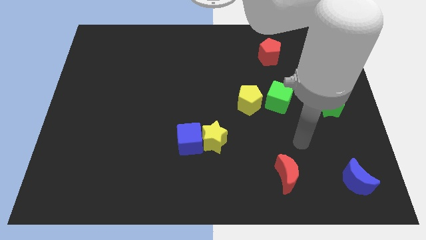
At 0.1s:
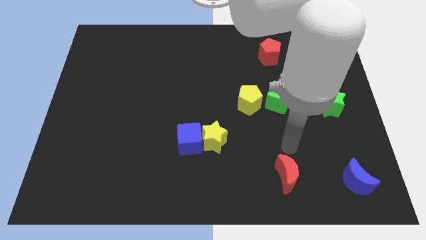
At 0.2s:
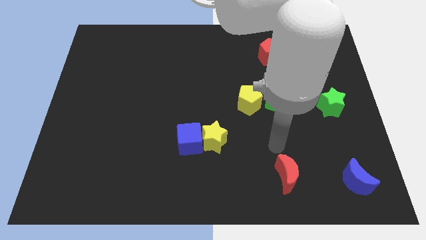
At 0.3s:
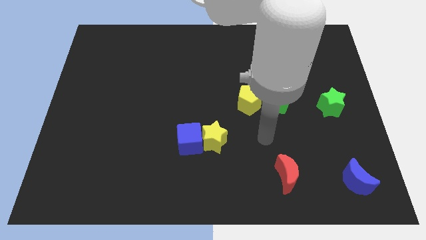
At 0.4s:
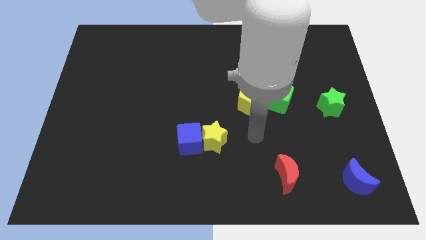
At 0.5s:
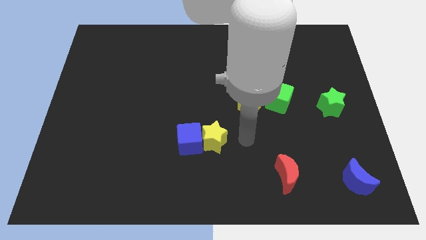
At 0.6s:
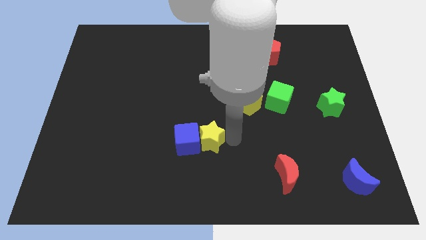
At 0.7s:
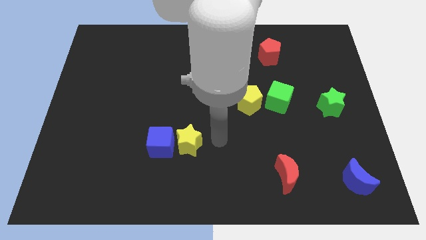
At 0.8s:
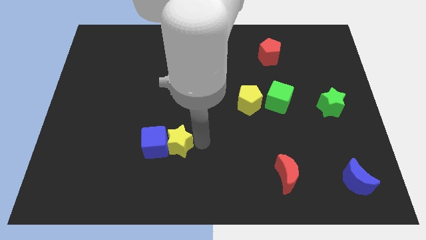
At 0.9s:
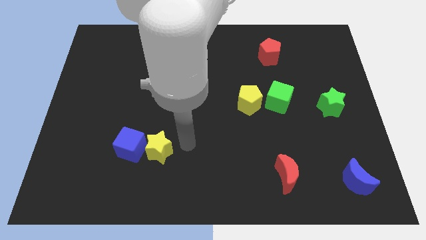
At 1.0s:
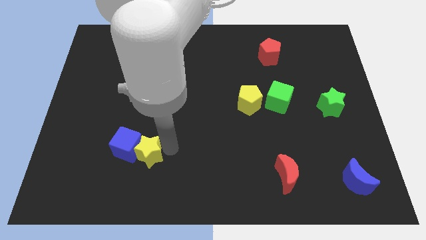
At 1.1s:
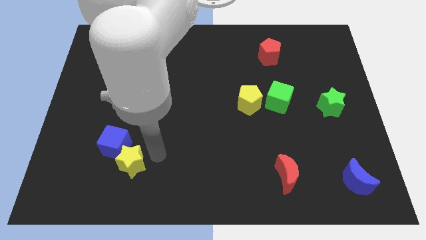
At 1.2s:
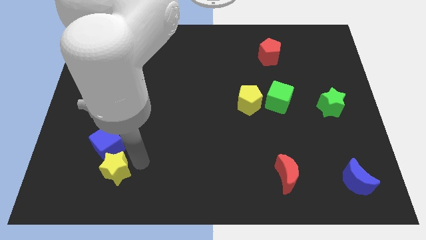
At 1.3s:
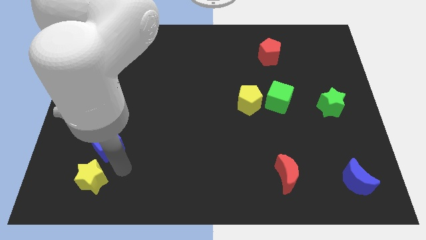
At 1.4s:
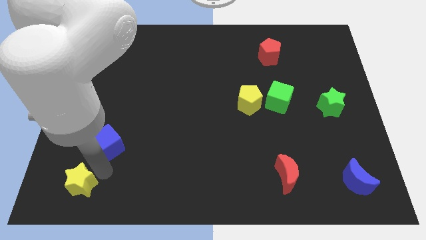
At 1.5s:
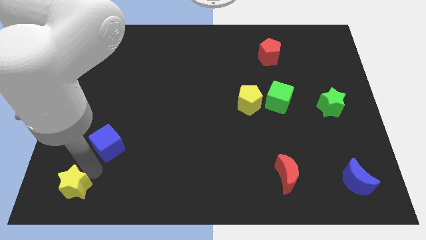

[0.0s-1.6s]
pull the blue cube apart from the yellow star

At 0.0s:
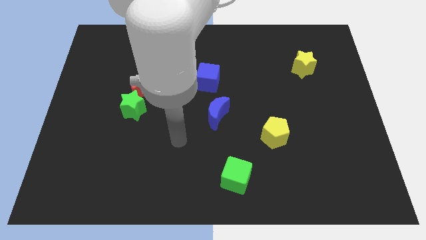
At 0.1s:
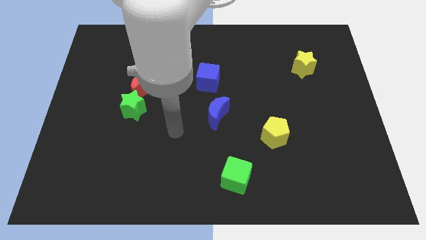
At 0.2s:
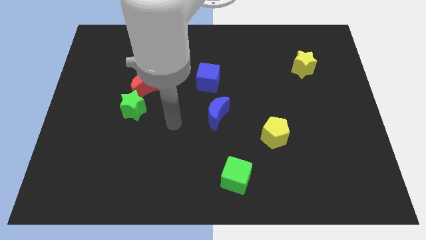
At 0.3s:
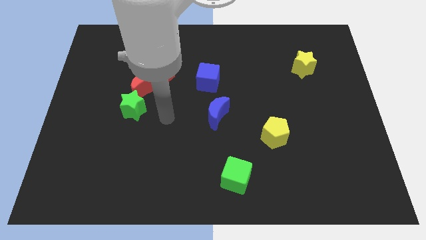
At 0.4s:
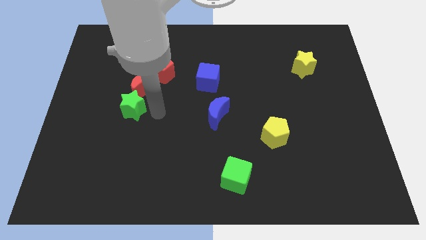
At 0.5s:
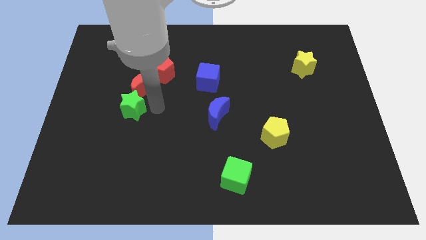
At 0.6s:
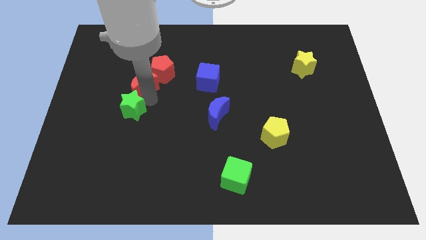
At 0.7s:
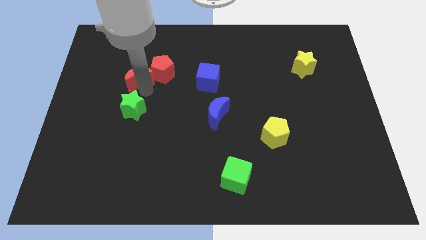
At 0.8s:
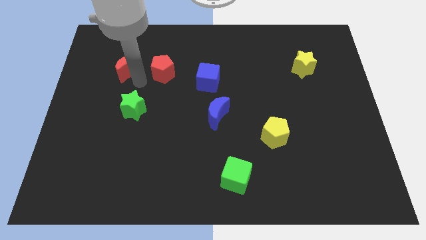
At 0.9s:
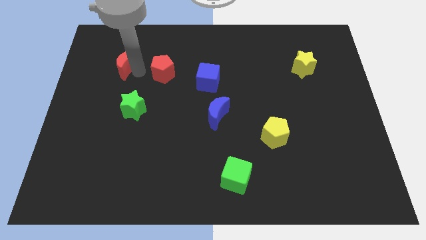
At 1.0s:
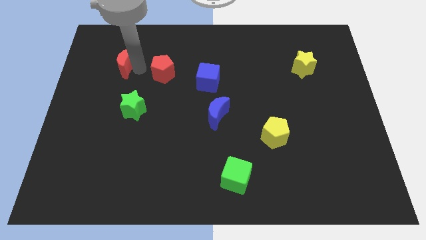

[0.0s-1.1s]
separate the red pentagon from the red moon

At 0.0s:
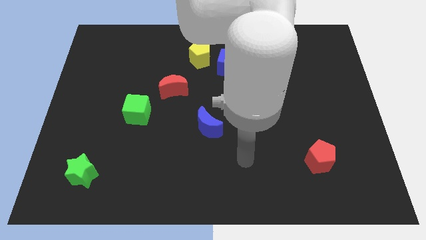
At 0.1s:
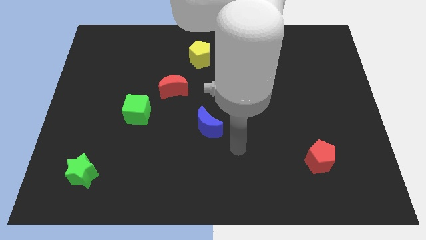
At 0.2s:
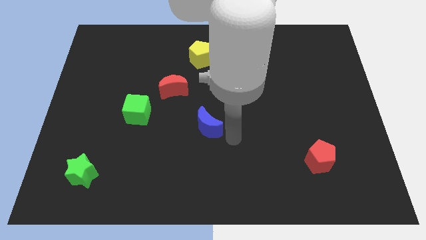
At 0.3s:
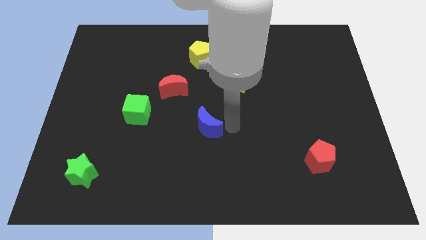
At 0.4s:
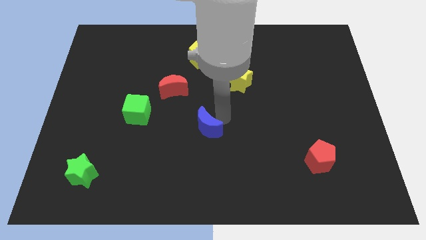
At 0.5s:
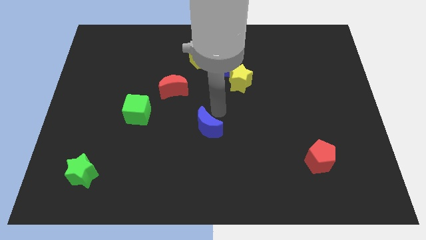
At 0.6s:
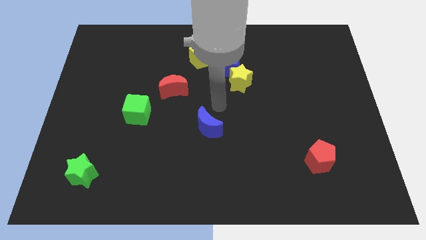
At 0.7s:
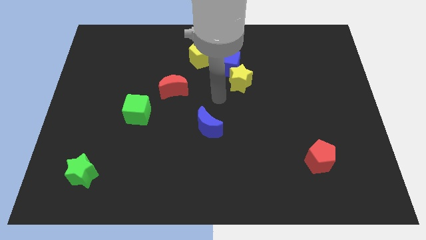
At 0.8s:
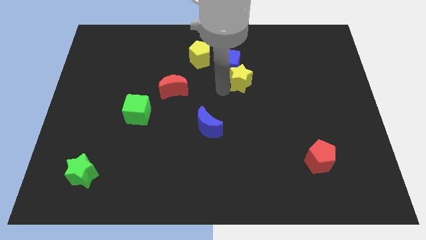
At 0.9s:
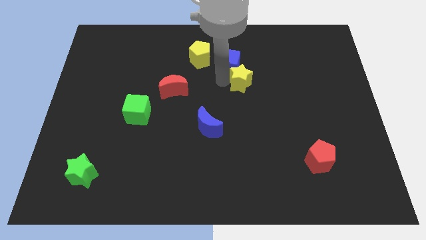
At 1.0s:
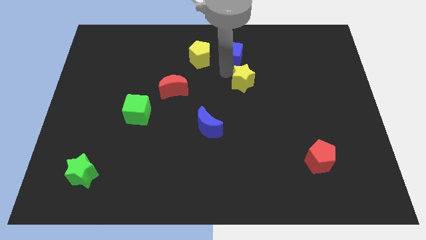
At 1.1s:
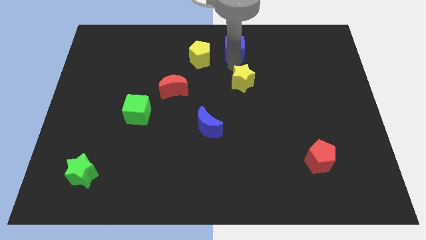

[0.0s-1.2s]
pull the yellow star apart from the blue cube

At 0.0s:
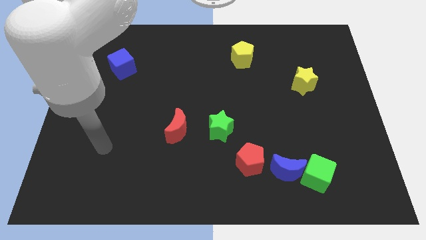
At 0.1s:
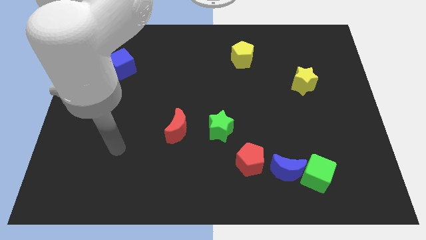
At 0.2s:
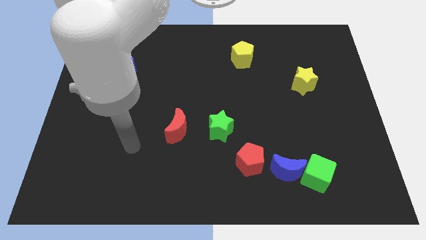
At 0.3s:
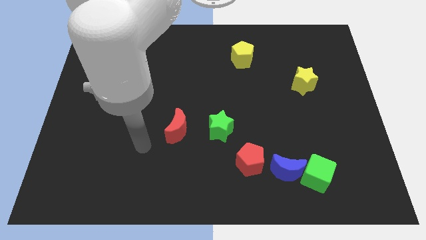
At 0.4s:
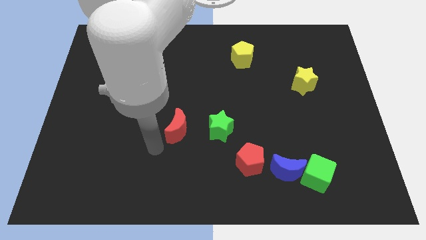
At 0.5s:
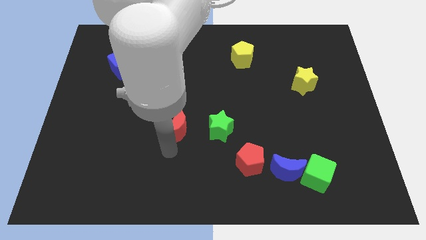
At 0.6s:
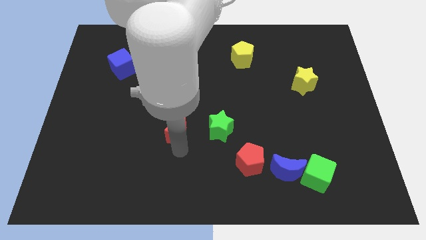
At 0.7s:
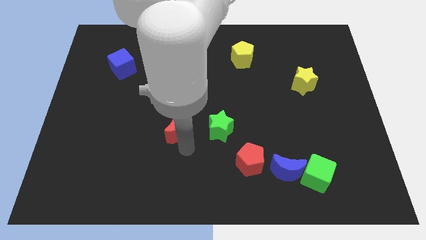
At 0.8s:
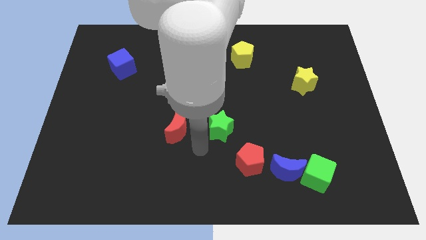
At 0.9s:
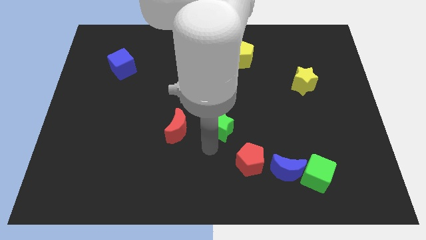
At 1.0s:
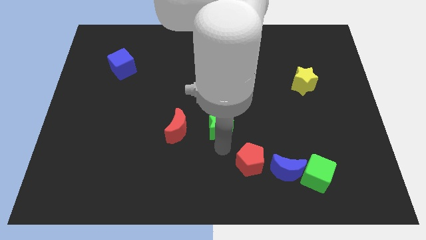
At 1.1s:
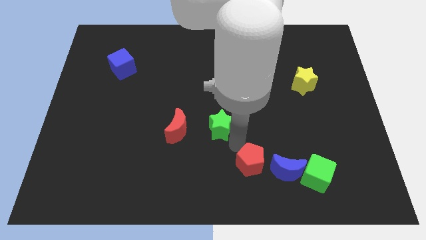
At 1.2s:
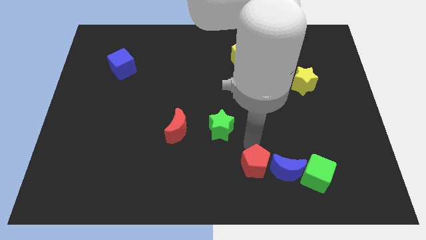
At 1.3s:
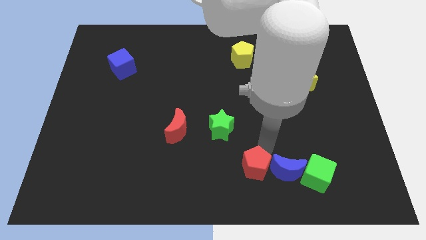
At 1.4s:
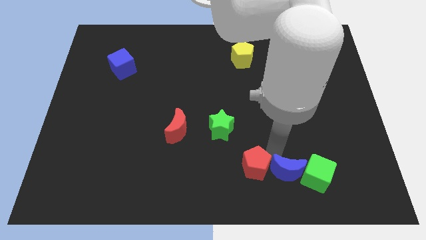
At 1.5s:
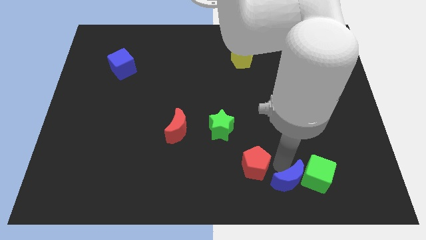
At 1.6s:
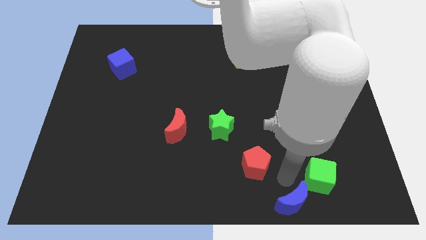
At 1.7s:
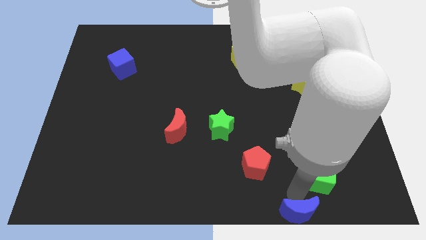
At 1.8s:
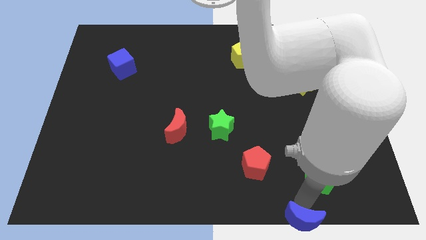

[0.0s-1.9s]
separate the green cube from the blue moon

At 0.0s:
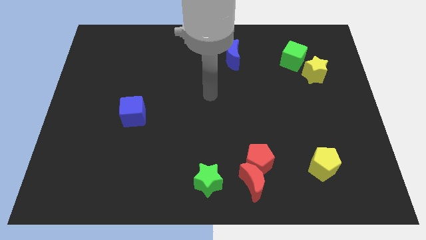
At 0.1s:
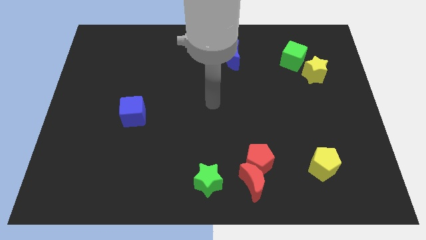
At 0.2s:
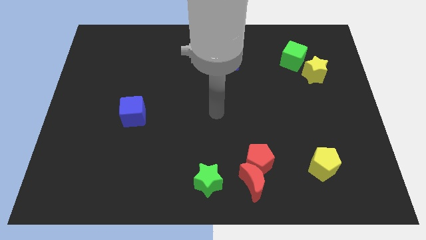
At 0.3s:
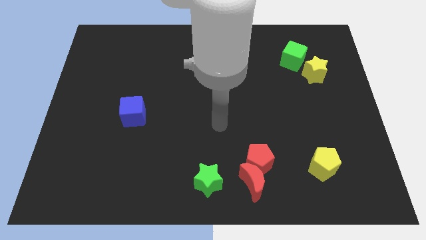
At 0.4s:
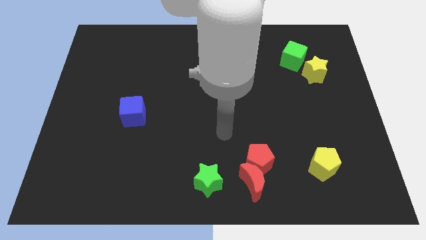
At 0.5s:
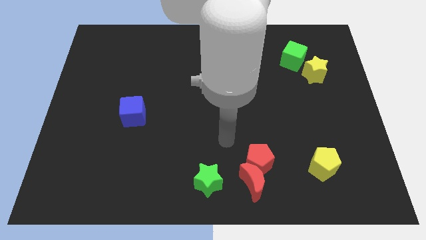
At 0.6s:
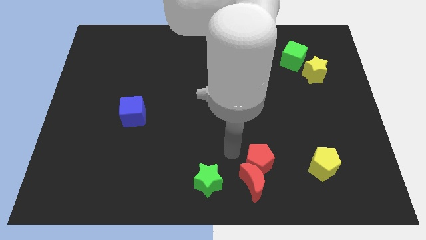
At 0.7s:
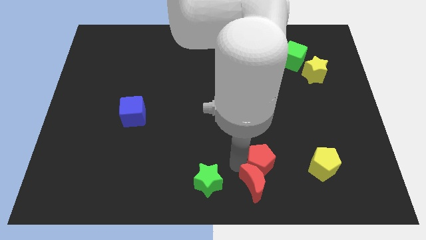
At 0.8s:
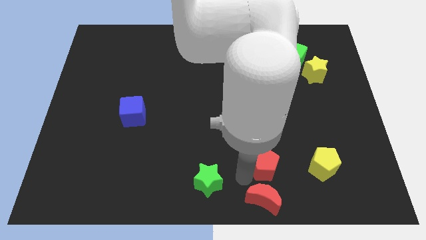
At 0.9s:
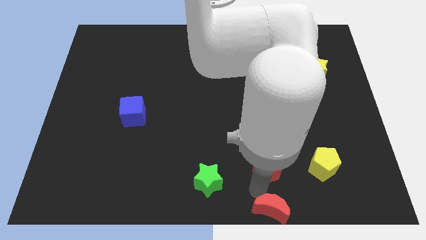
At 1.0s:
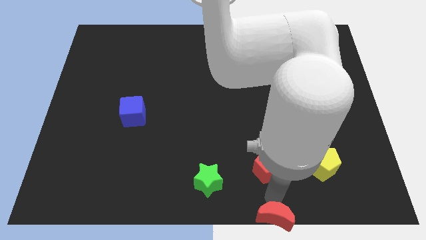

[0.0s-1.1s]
pull the red pentagon apart from the red moon

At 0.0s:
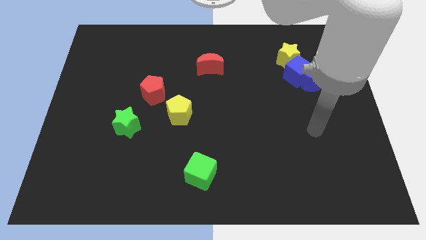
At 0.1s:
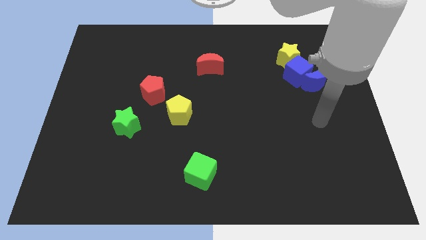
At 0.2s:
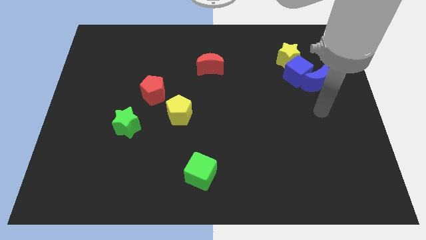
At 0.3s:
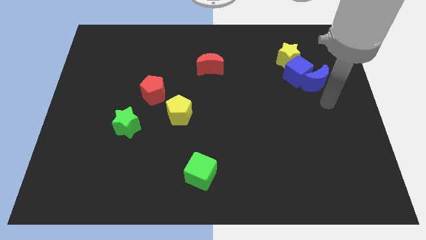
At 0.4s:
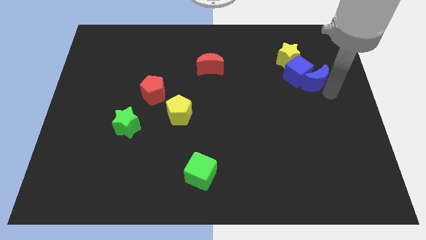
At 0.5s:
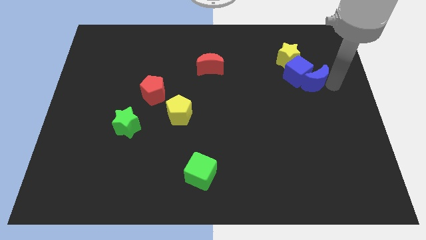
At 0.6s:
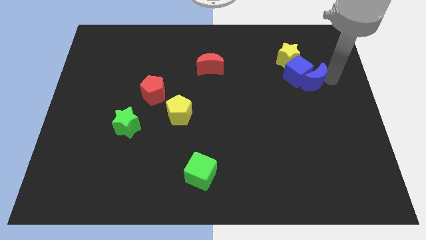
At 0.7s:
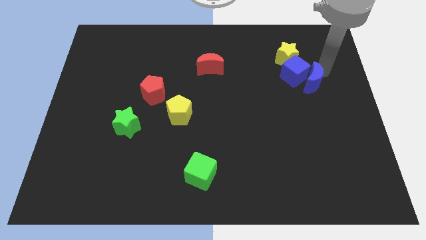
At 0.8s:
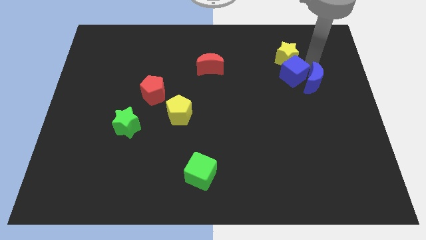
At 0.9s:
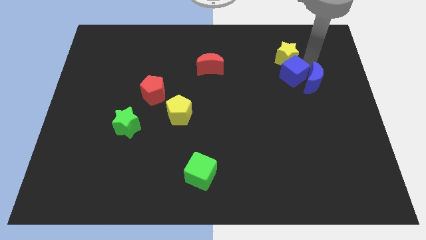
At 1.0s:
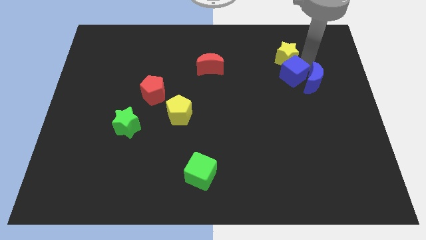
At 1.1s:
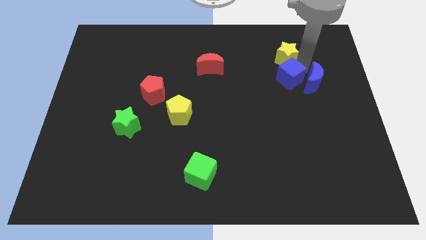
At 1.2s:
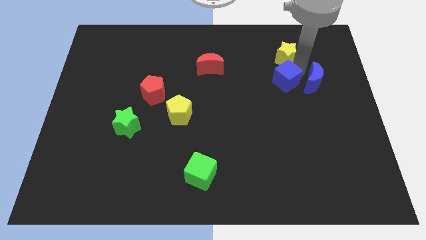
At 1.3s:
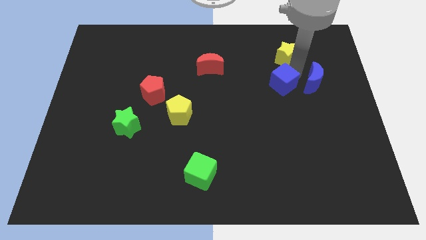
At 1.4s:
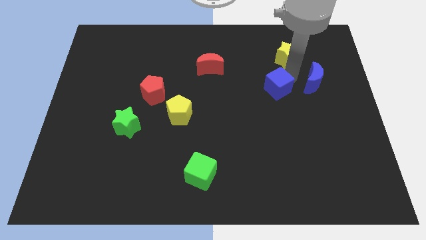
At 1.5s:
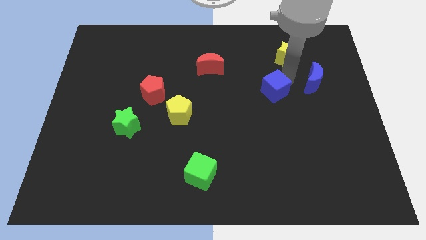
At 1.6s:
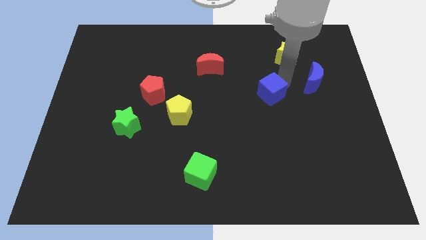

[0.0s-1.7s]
separate the blue cube from the blue moon and yellow star

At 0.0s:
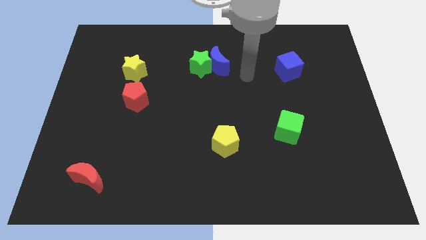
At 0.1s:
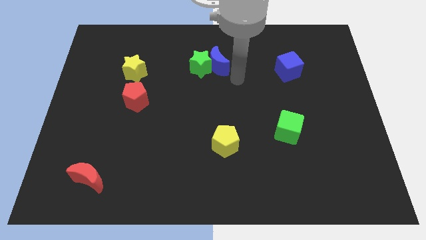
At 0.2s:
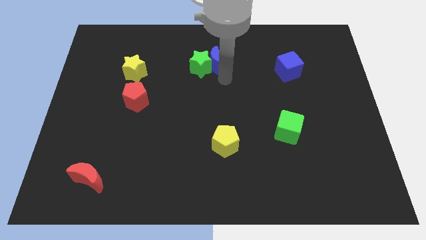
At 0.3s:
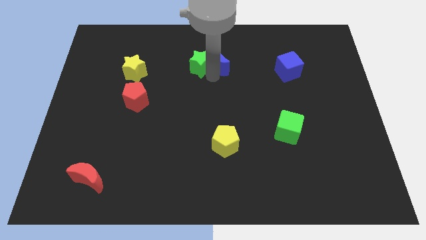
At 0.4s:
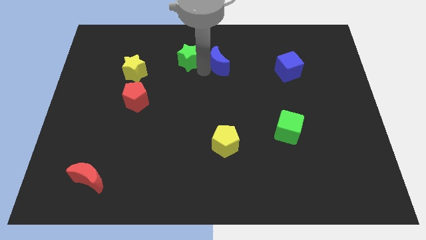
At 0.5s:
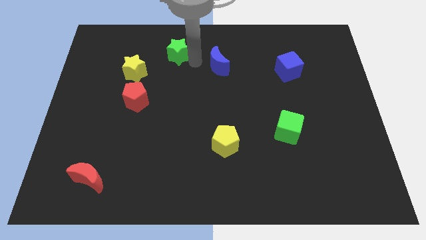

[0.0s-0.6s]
pull the blue moon apart from the green star

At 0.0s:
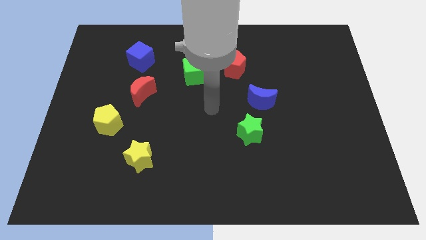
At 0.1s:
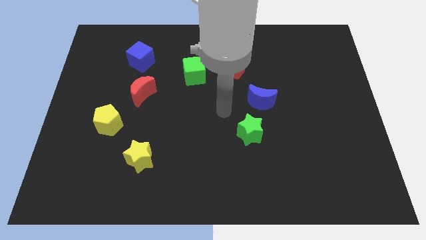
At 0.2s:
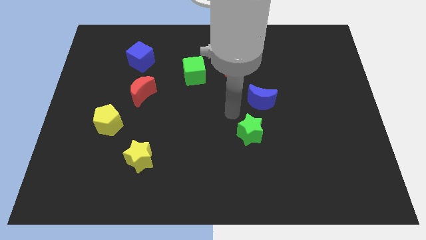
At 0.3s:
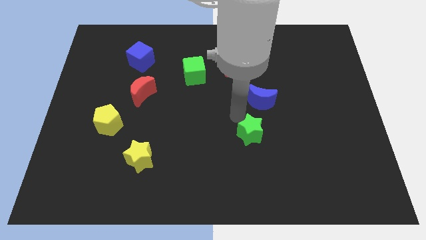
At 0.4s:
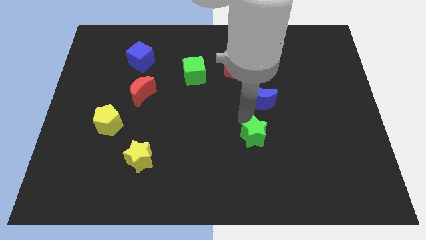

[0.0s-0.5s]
move the blue moon away from the green star
